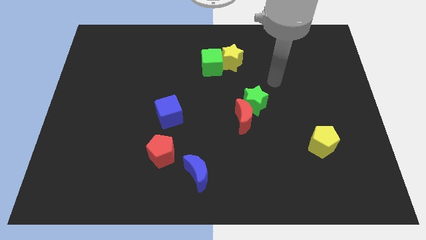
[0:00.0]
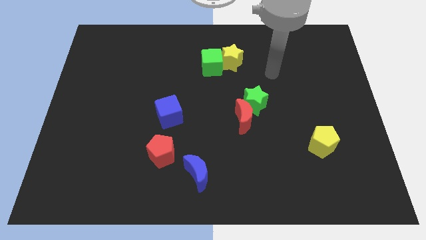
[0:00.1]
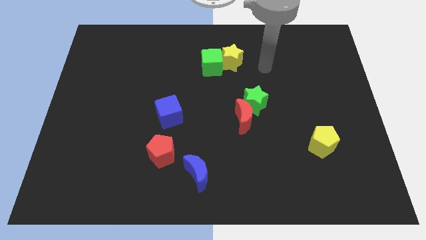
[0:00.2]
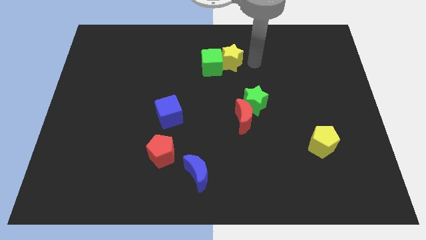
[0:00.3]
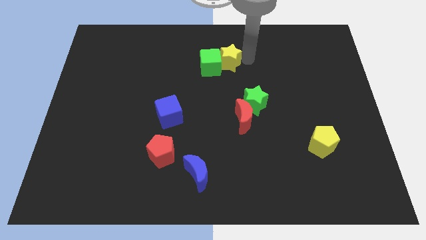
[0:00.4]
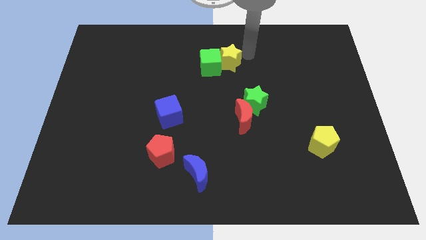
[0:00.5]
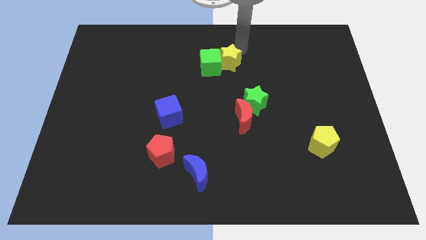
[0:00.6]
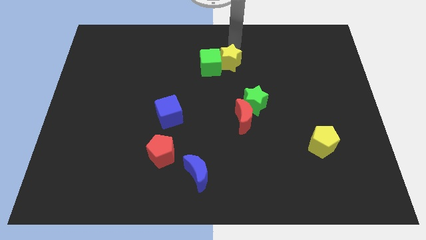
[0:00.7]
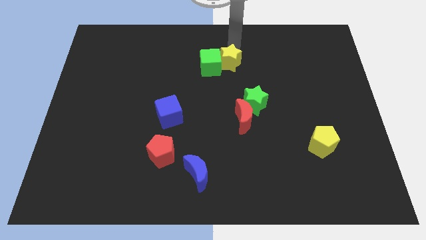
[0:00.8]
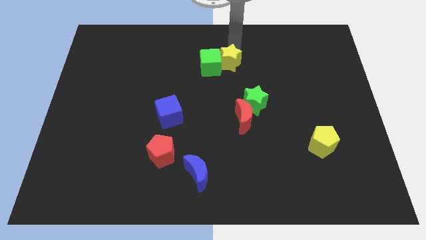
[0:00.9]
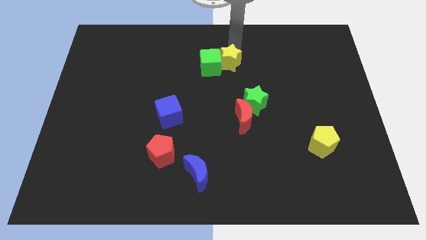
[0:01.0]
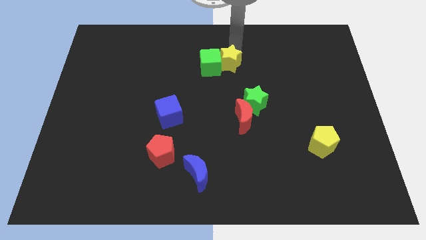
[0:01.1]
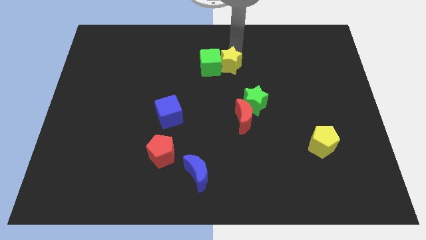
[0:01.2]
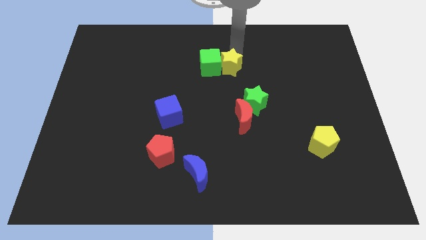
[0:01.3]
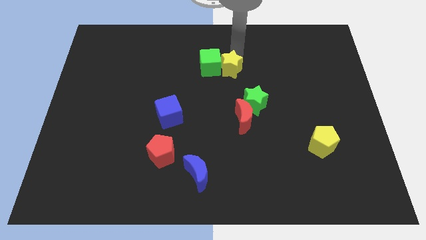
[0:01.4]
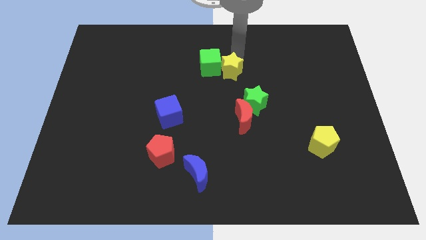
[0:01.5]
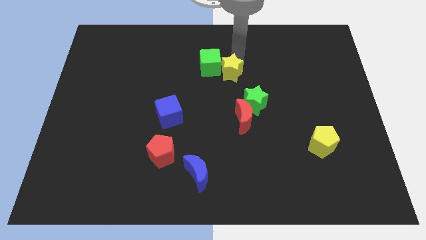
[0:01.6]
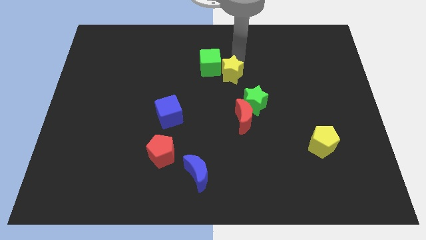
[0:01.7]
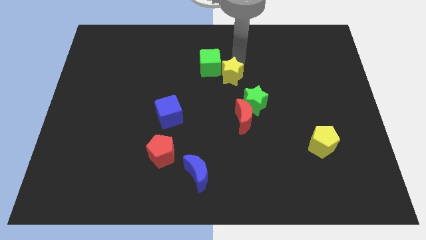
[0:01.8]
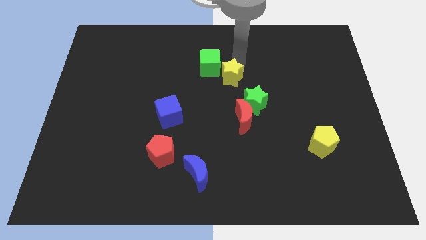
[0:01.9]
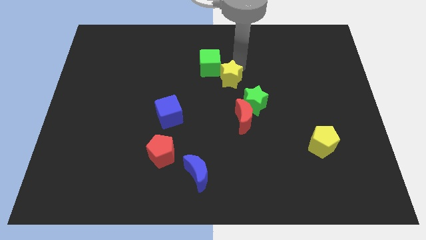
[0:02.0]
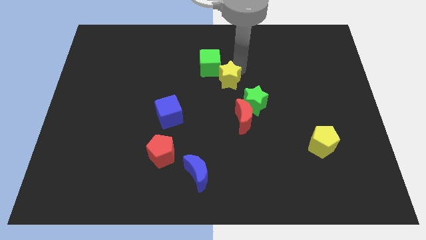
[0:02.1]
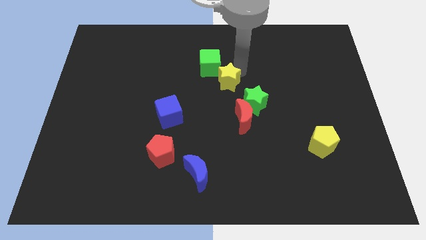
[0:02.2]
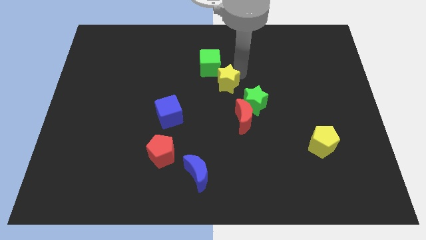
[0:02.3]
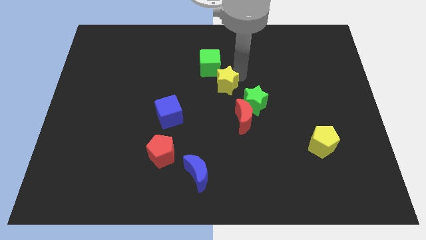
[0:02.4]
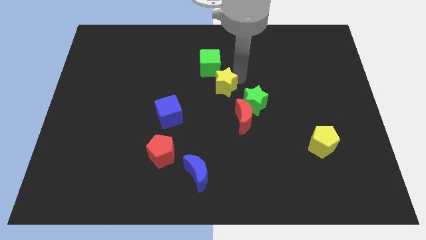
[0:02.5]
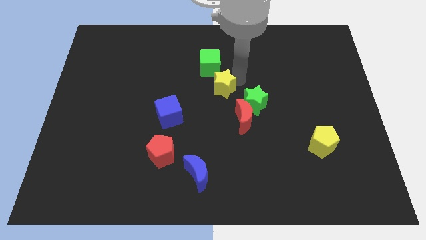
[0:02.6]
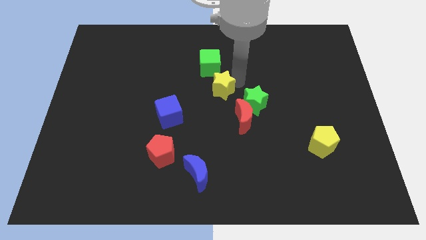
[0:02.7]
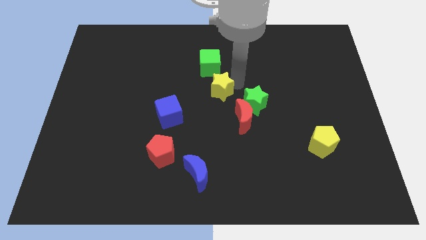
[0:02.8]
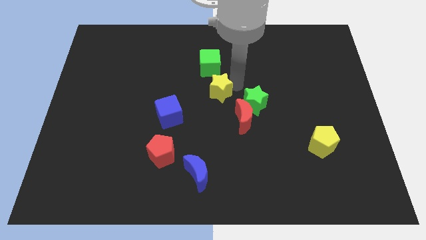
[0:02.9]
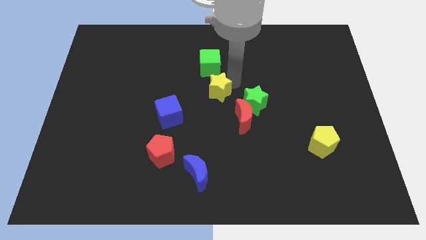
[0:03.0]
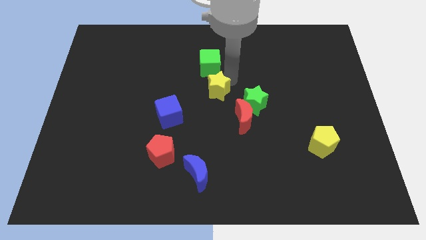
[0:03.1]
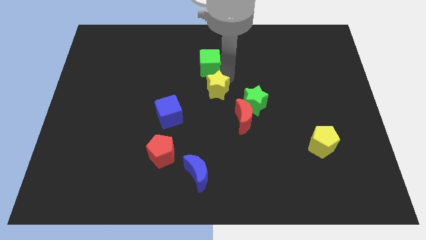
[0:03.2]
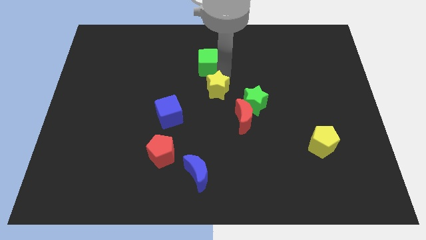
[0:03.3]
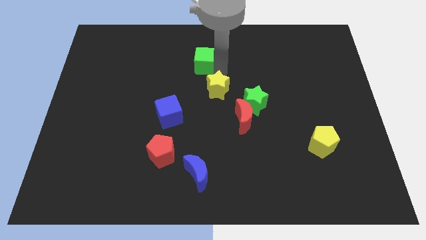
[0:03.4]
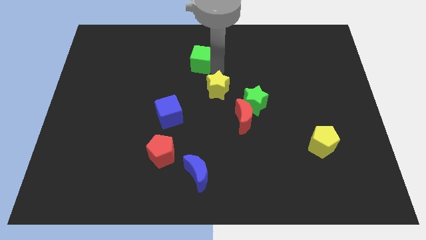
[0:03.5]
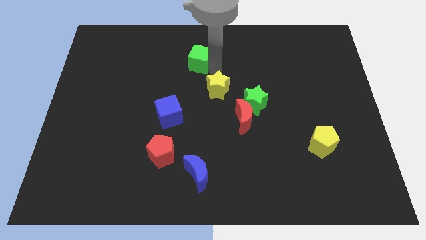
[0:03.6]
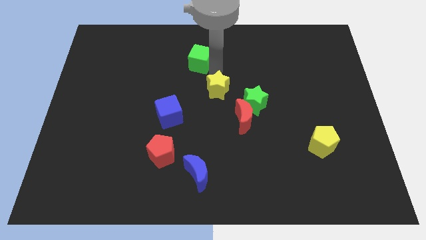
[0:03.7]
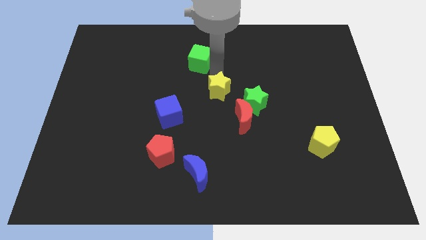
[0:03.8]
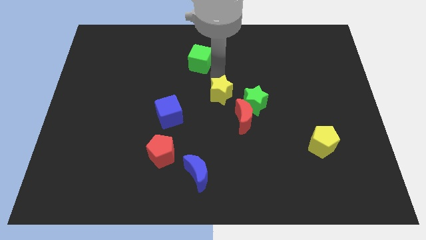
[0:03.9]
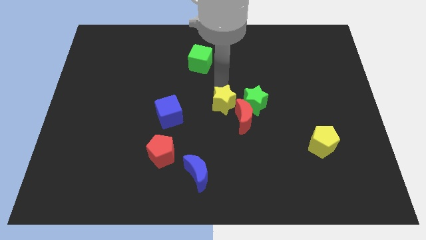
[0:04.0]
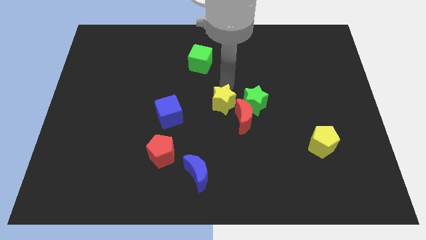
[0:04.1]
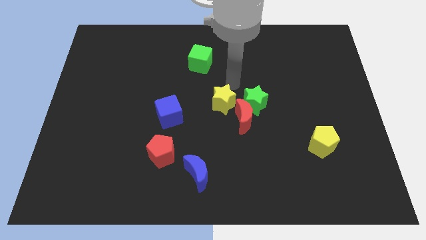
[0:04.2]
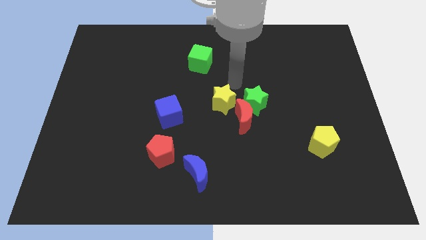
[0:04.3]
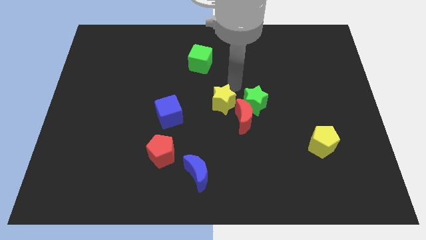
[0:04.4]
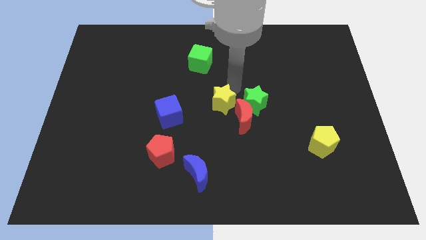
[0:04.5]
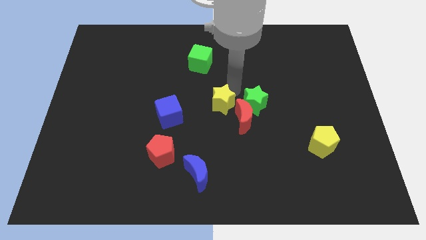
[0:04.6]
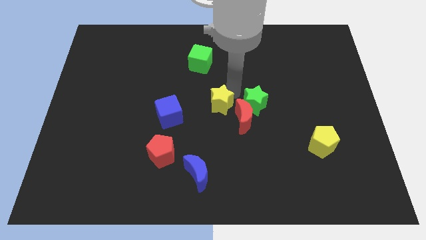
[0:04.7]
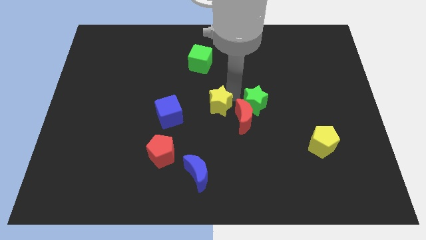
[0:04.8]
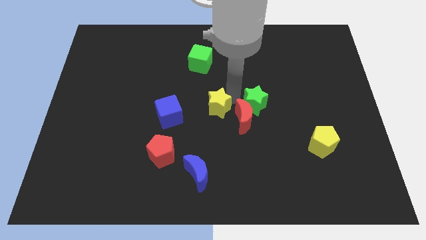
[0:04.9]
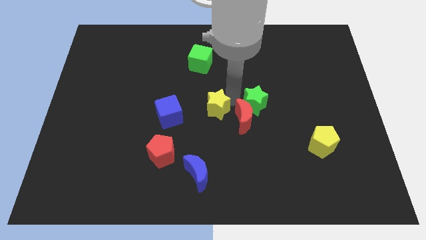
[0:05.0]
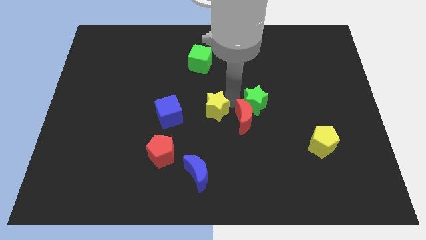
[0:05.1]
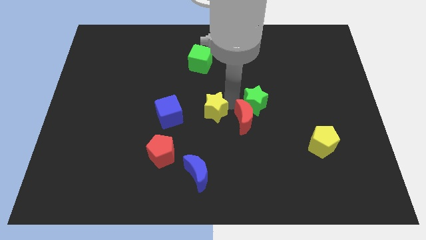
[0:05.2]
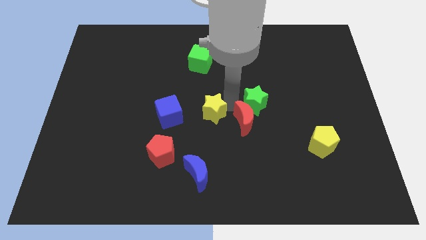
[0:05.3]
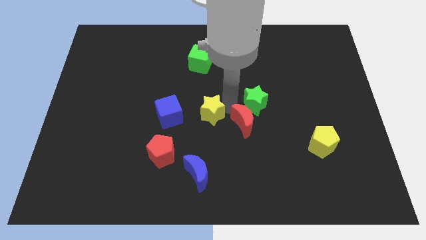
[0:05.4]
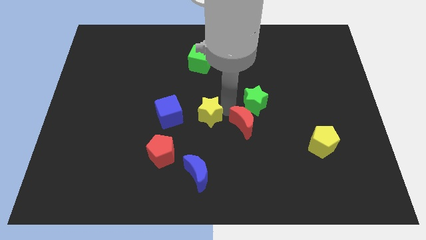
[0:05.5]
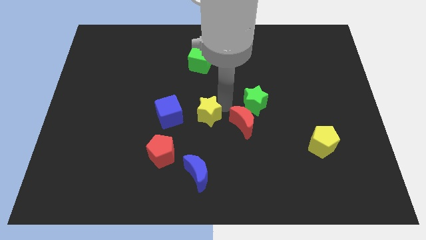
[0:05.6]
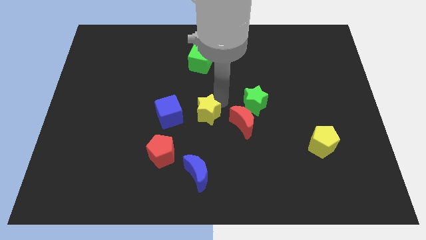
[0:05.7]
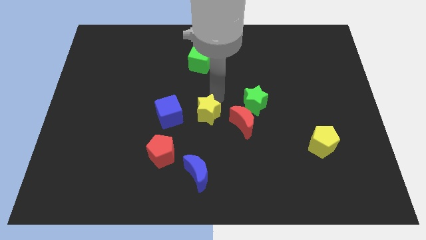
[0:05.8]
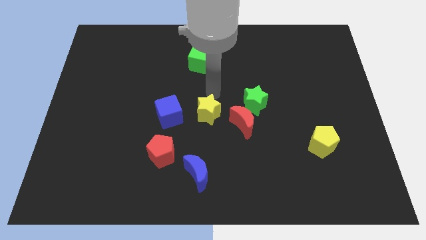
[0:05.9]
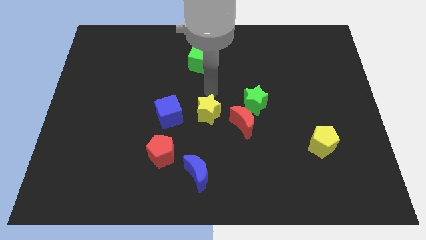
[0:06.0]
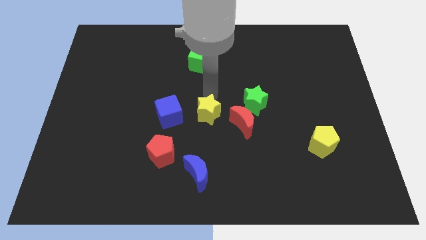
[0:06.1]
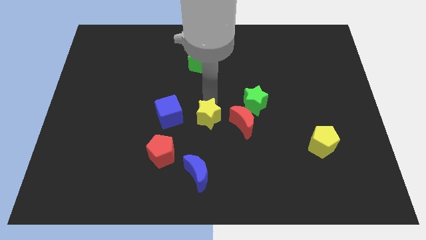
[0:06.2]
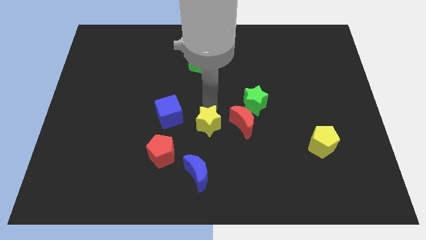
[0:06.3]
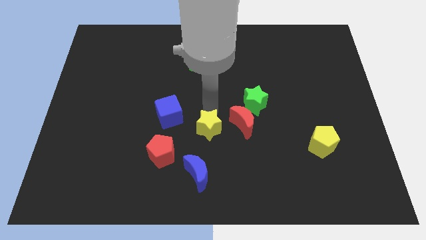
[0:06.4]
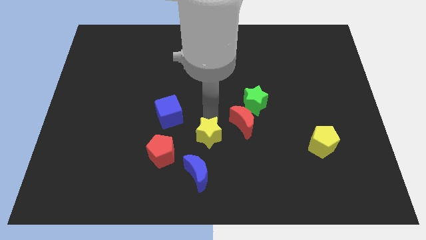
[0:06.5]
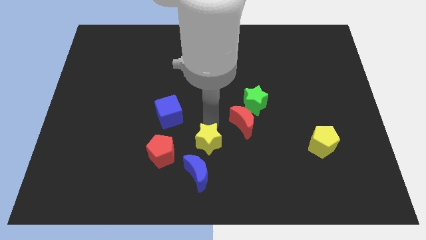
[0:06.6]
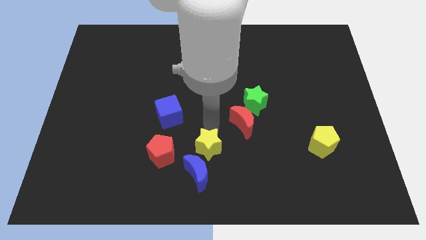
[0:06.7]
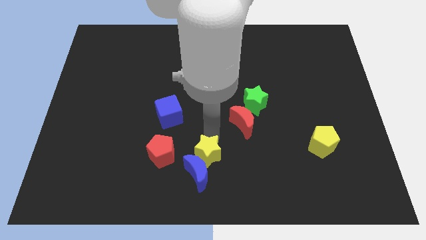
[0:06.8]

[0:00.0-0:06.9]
put the yellow star next to the blue moon

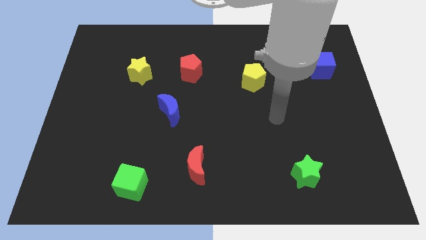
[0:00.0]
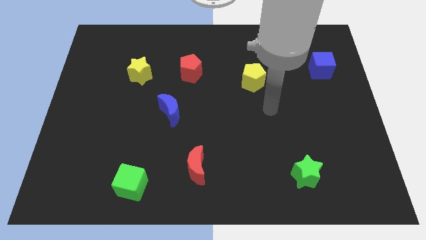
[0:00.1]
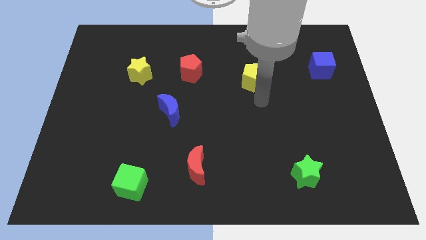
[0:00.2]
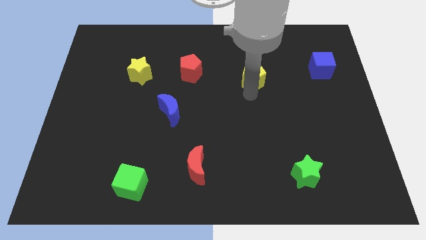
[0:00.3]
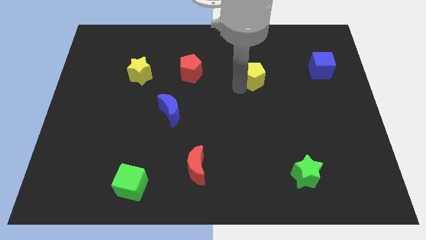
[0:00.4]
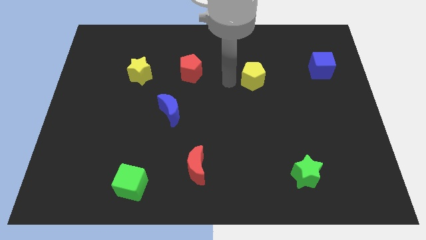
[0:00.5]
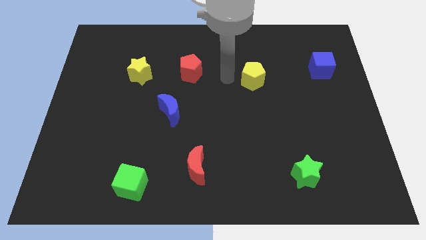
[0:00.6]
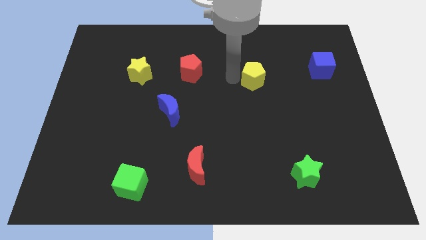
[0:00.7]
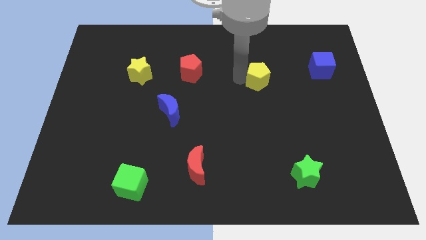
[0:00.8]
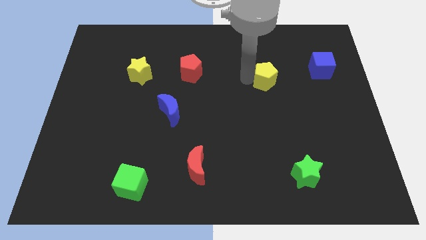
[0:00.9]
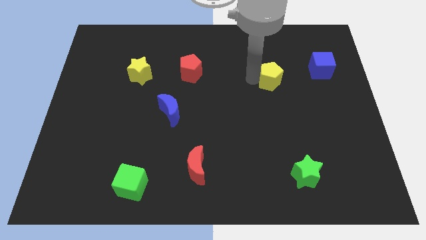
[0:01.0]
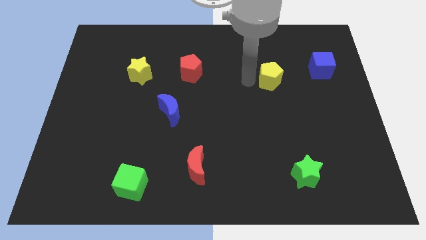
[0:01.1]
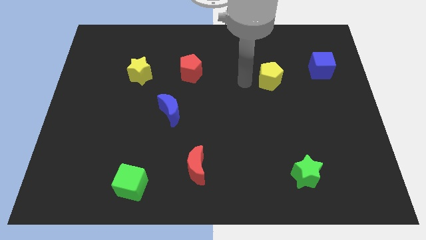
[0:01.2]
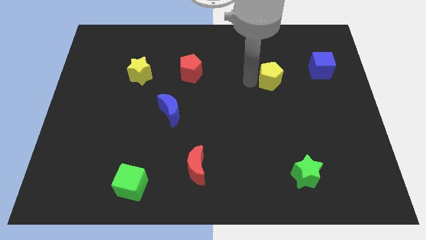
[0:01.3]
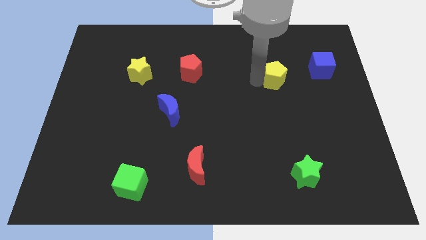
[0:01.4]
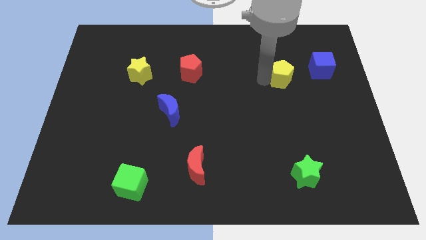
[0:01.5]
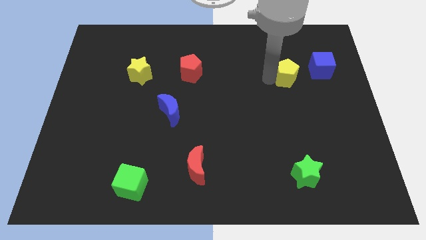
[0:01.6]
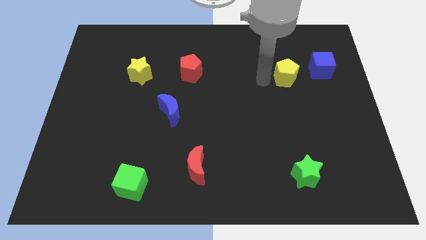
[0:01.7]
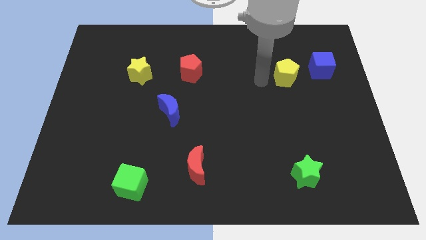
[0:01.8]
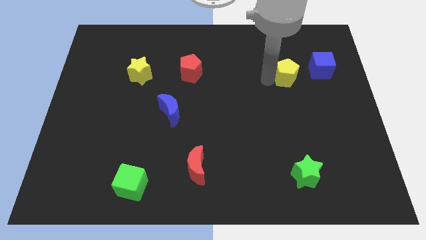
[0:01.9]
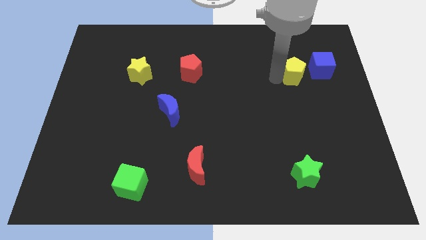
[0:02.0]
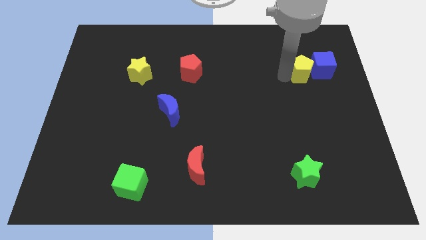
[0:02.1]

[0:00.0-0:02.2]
slide the yellow pentagon close to the blue cube
